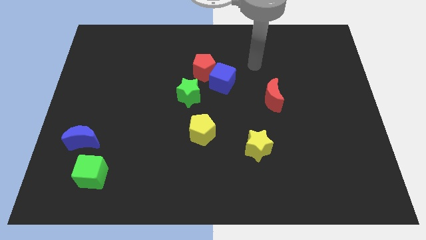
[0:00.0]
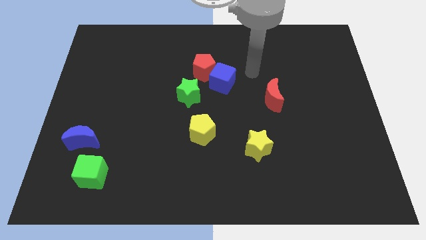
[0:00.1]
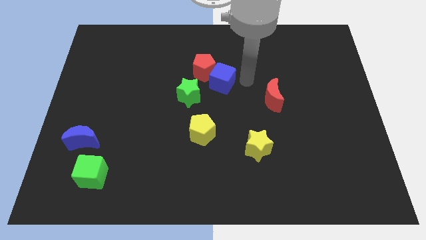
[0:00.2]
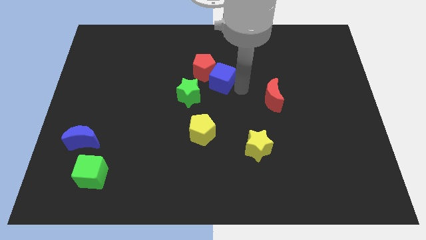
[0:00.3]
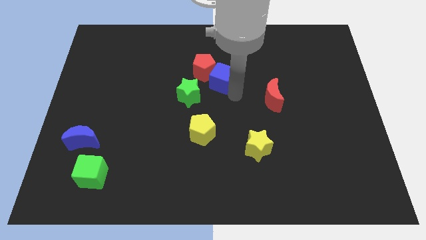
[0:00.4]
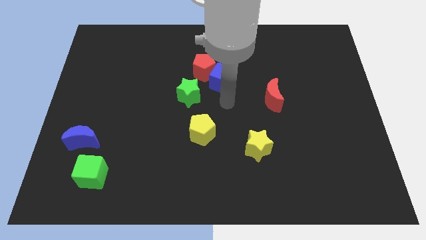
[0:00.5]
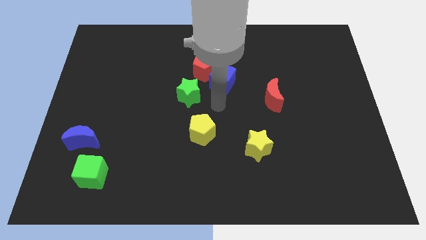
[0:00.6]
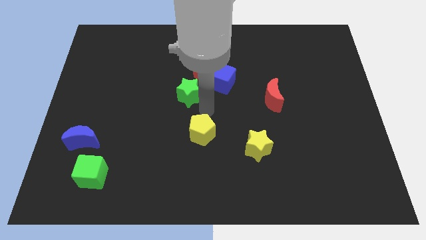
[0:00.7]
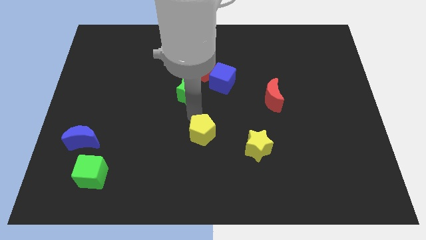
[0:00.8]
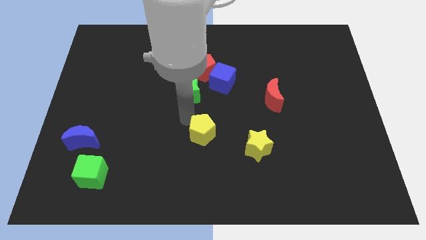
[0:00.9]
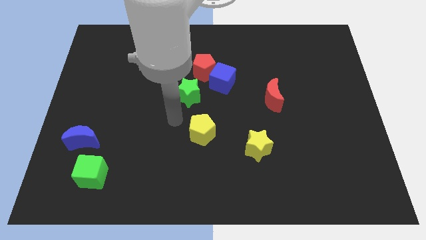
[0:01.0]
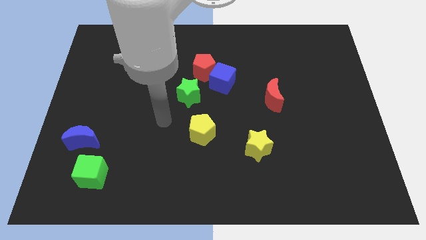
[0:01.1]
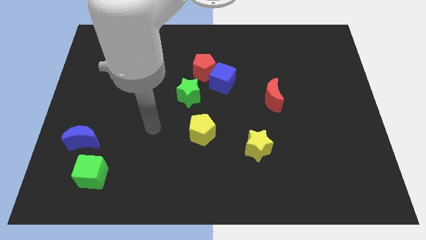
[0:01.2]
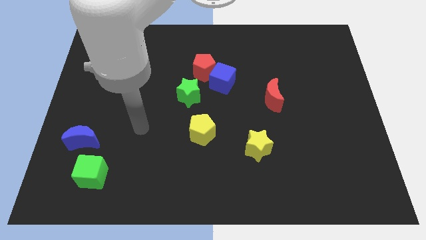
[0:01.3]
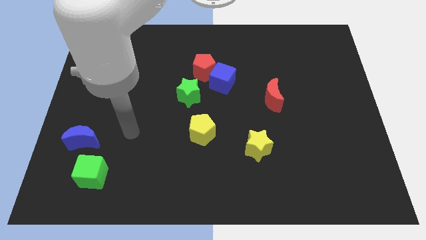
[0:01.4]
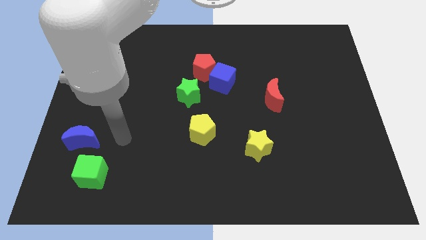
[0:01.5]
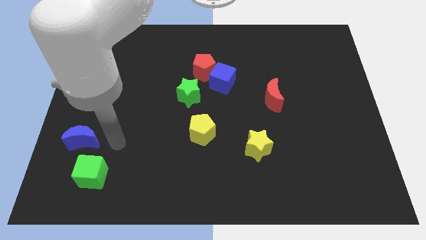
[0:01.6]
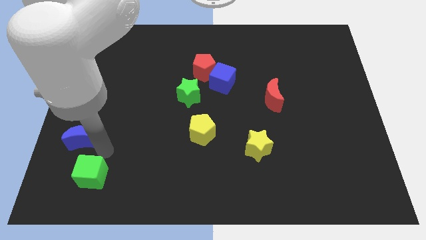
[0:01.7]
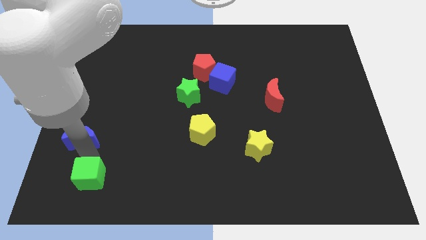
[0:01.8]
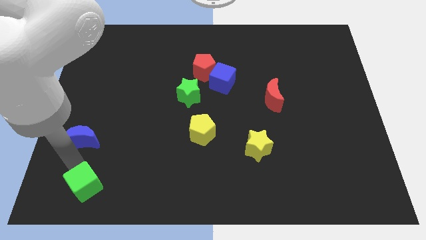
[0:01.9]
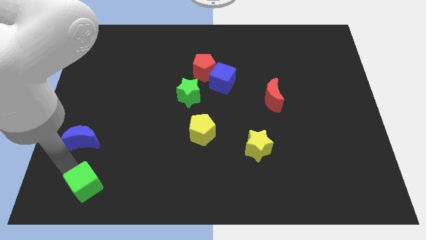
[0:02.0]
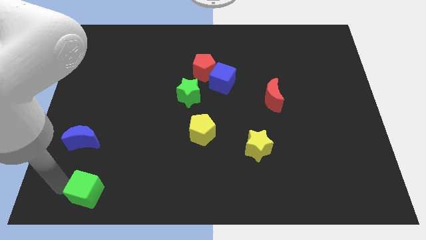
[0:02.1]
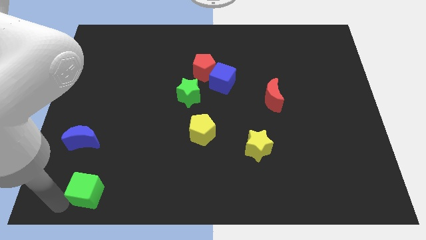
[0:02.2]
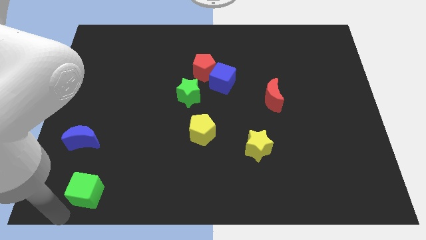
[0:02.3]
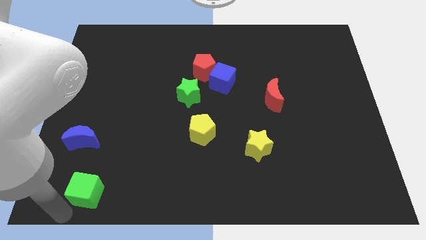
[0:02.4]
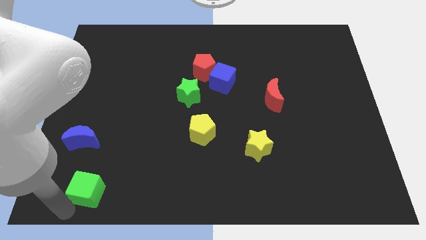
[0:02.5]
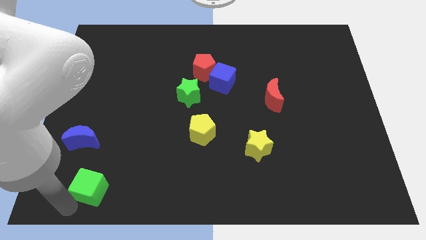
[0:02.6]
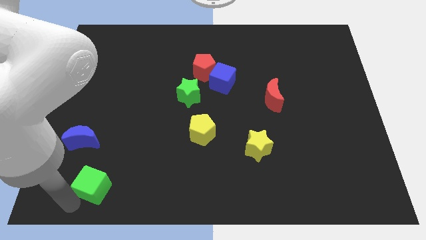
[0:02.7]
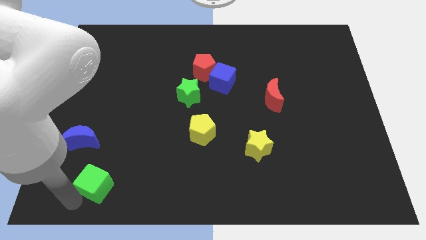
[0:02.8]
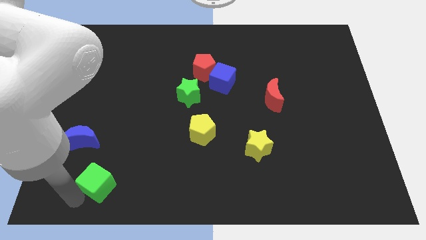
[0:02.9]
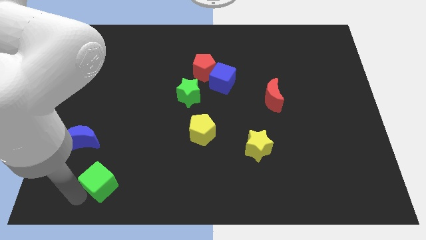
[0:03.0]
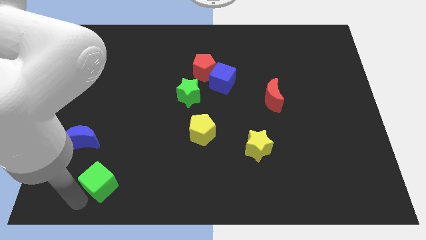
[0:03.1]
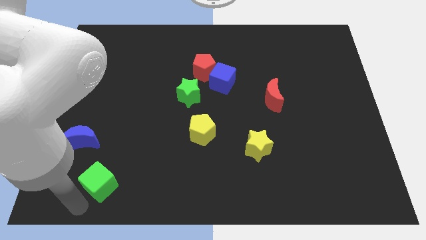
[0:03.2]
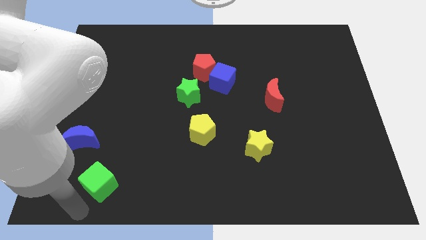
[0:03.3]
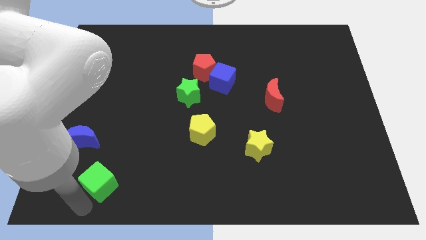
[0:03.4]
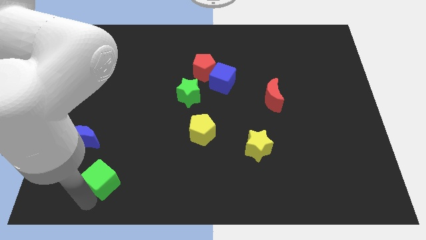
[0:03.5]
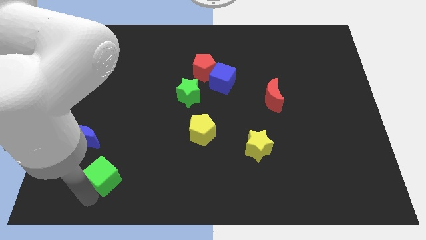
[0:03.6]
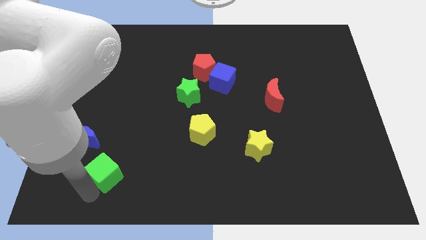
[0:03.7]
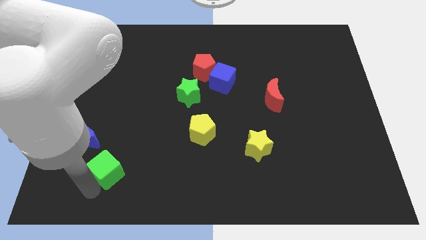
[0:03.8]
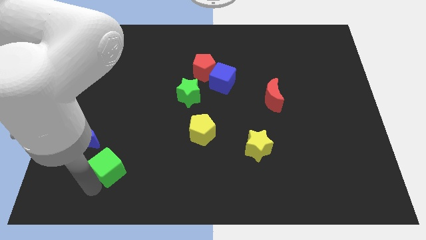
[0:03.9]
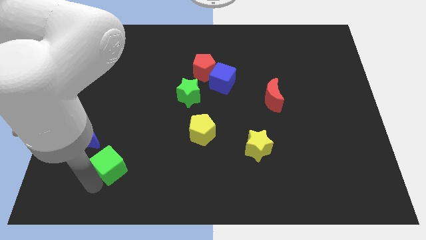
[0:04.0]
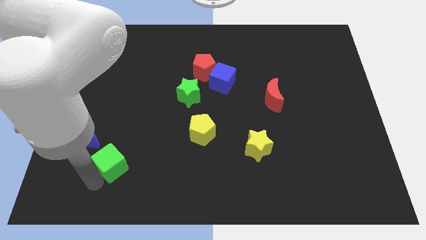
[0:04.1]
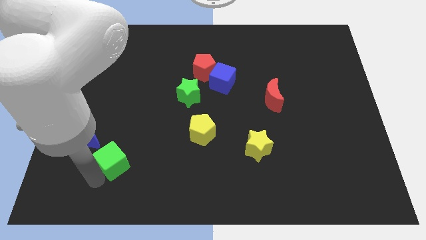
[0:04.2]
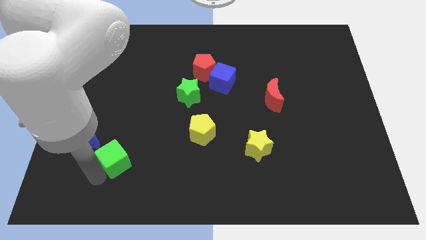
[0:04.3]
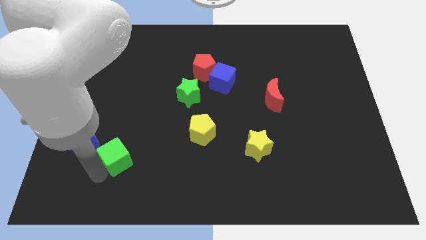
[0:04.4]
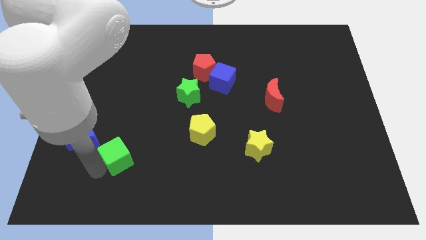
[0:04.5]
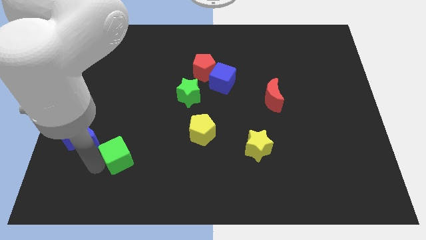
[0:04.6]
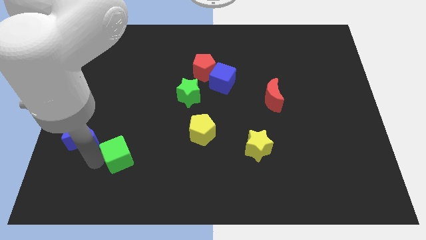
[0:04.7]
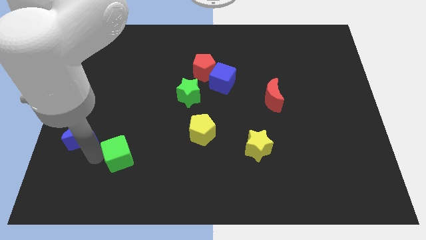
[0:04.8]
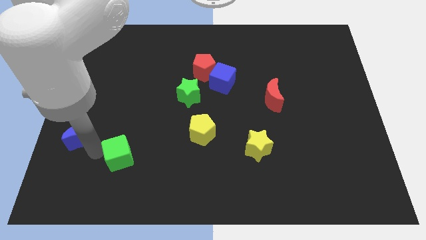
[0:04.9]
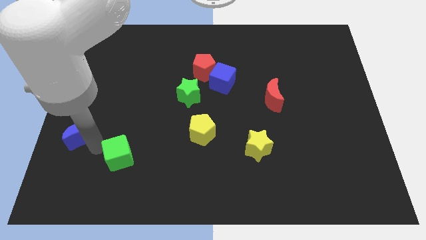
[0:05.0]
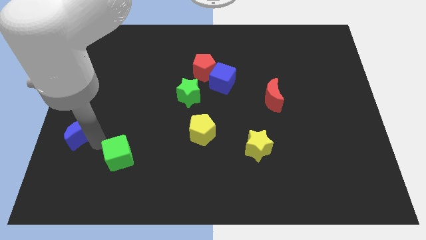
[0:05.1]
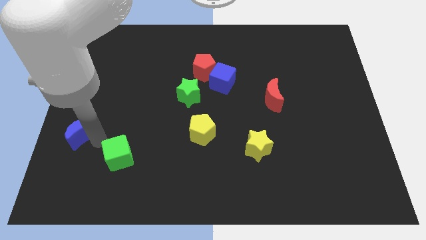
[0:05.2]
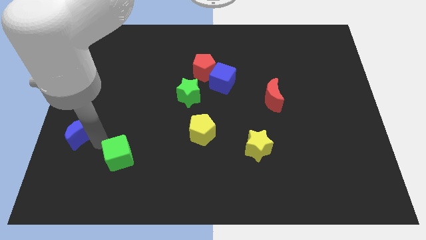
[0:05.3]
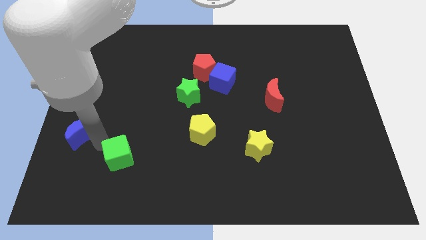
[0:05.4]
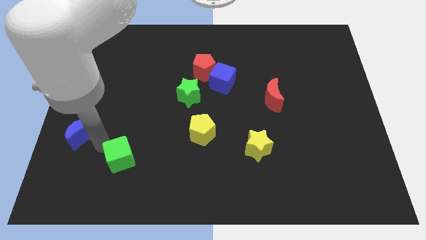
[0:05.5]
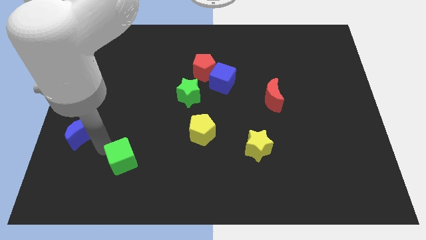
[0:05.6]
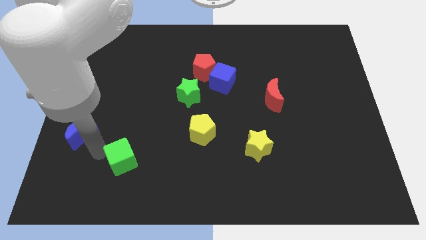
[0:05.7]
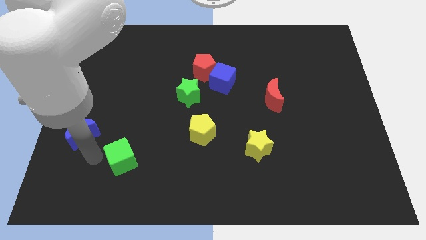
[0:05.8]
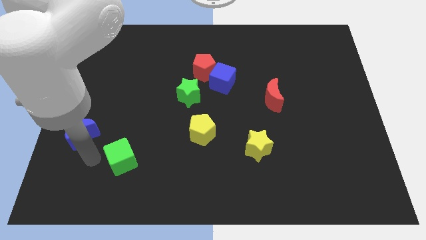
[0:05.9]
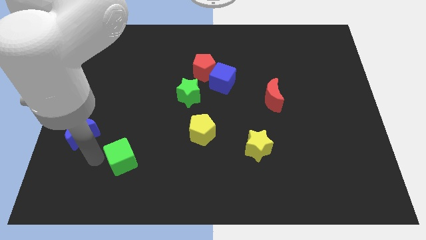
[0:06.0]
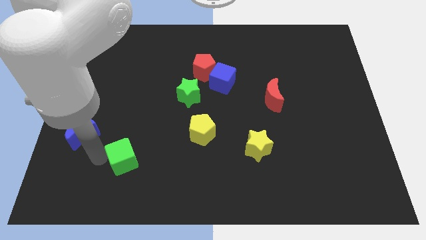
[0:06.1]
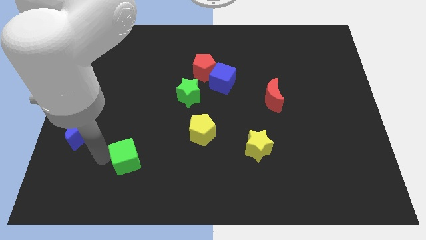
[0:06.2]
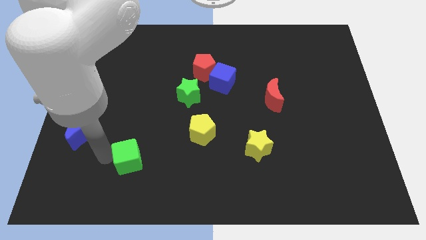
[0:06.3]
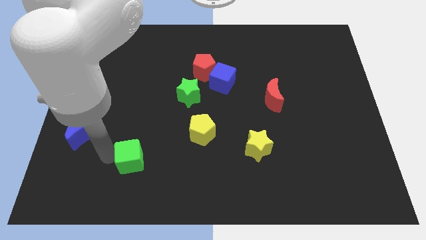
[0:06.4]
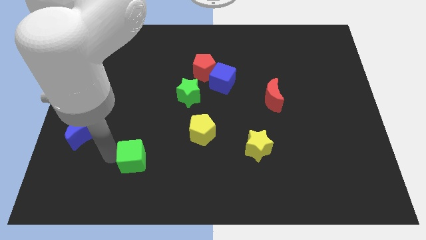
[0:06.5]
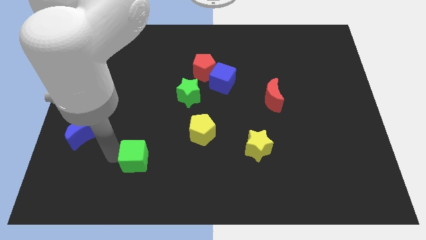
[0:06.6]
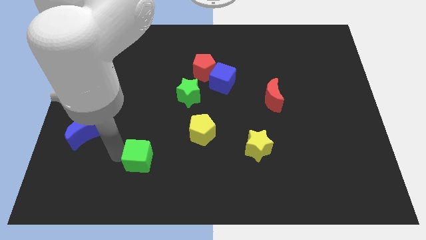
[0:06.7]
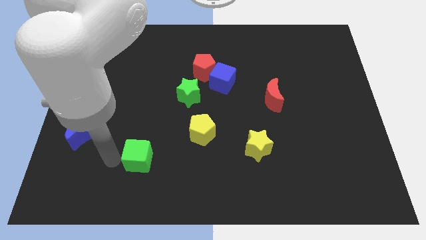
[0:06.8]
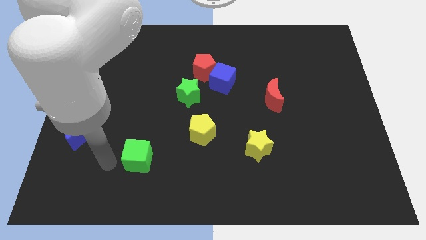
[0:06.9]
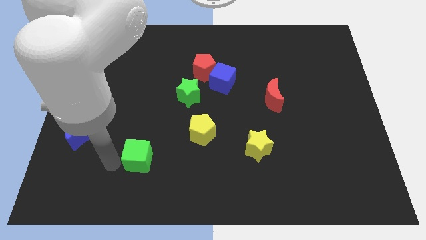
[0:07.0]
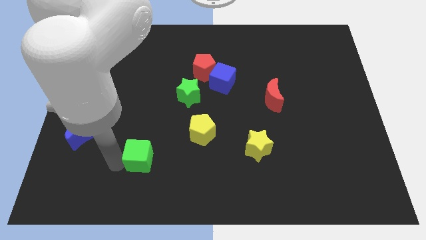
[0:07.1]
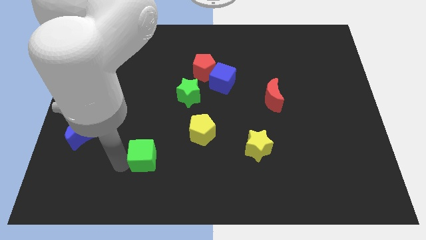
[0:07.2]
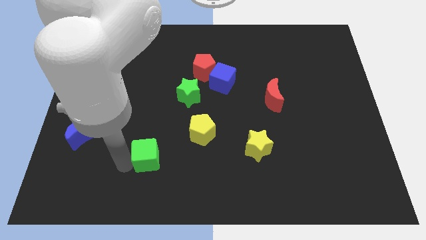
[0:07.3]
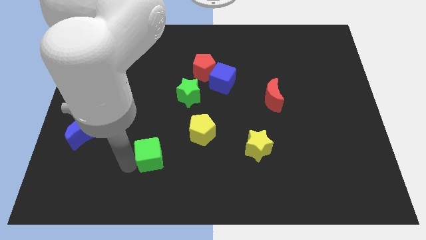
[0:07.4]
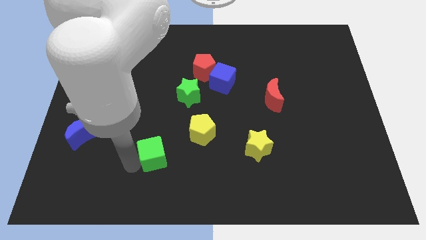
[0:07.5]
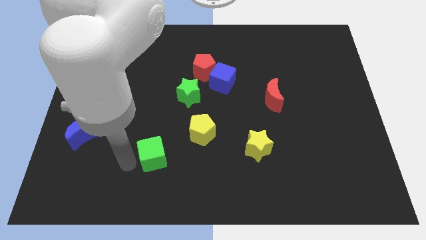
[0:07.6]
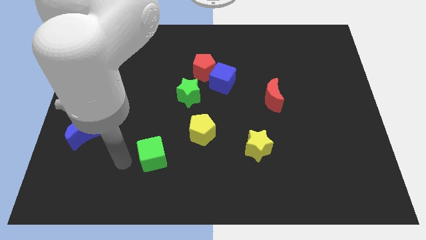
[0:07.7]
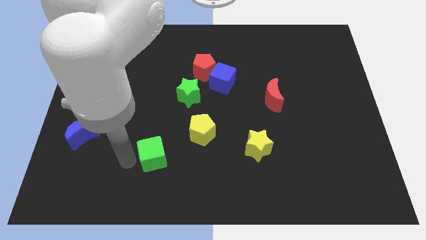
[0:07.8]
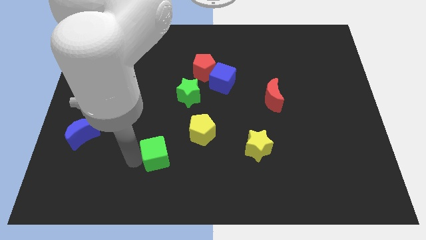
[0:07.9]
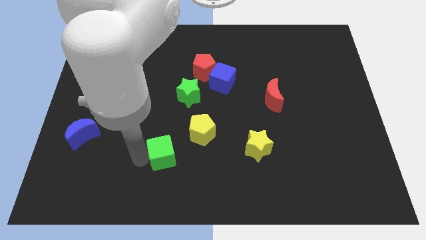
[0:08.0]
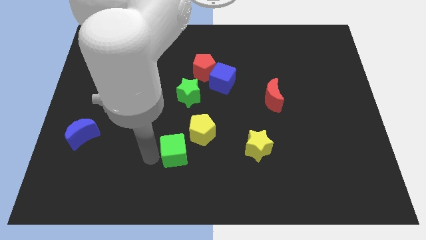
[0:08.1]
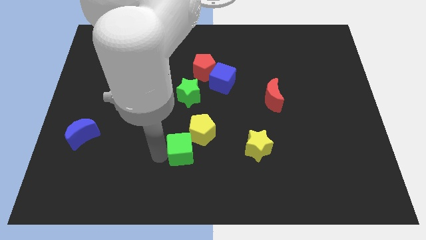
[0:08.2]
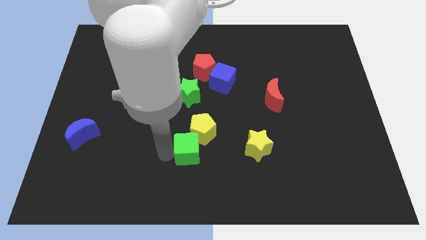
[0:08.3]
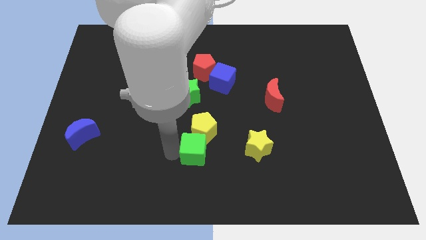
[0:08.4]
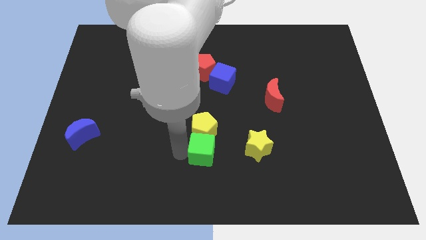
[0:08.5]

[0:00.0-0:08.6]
slide the green cube to the bottom right side of the yellow pentagon
